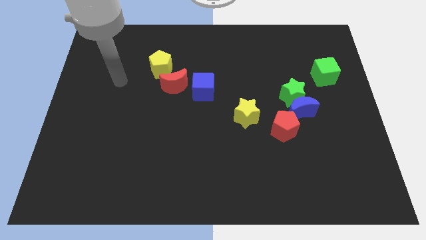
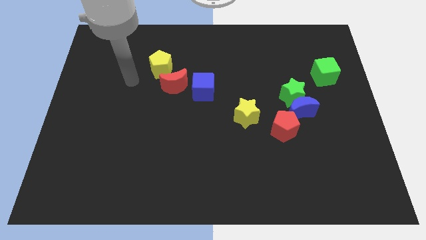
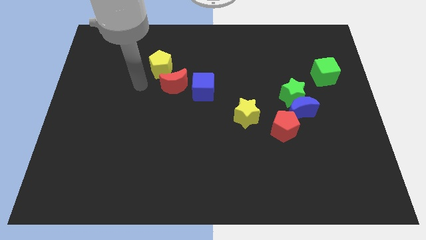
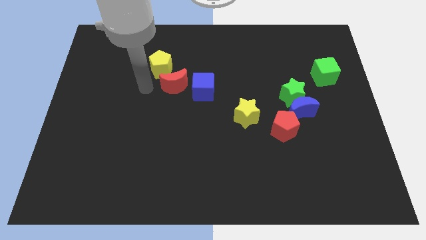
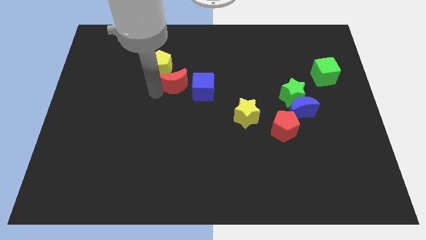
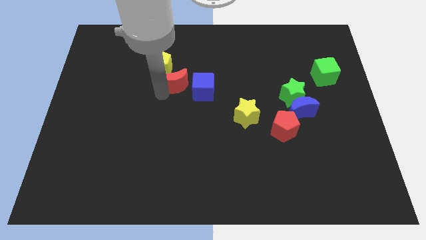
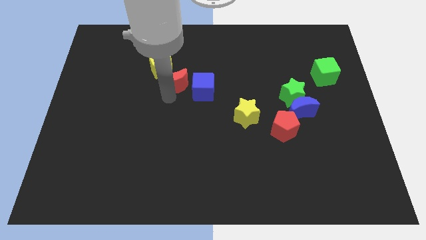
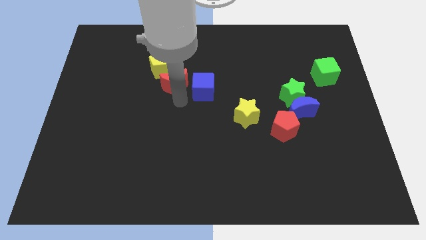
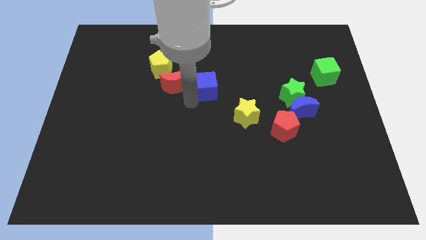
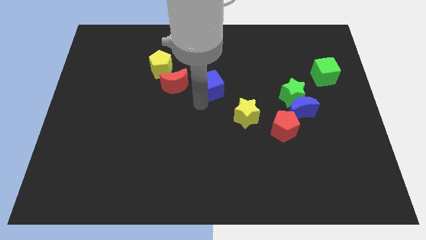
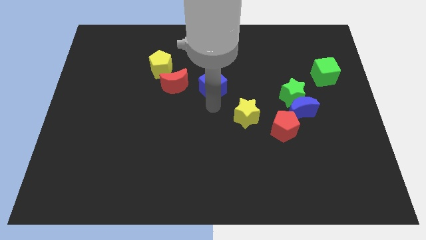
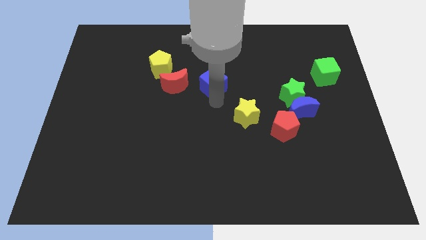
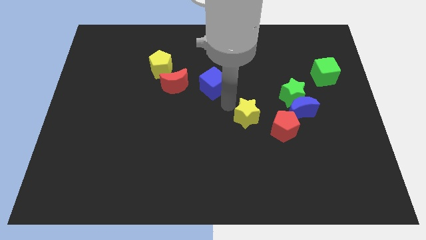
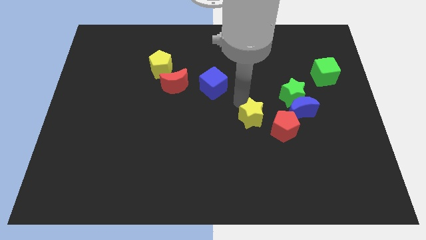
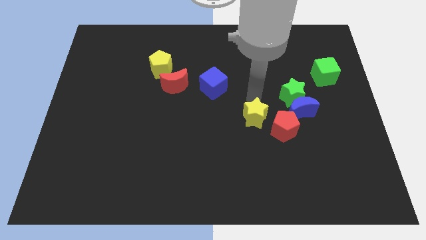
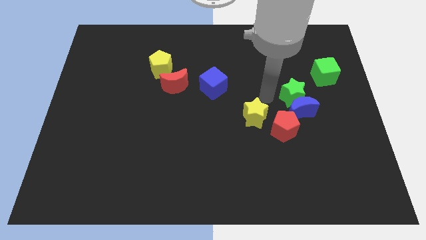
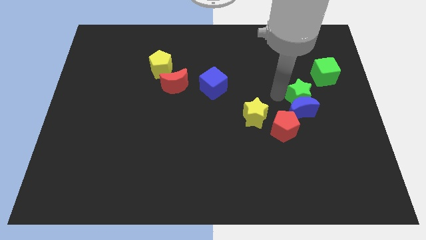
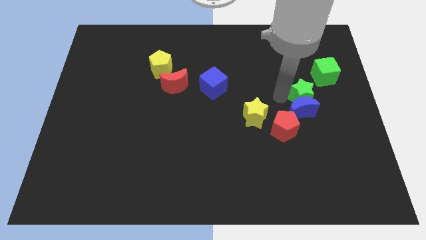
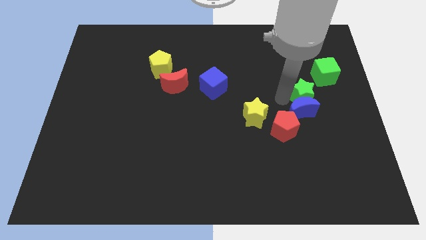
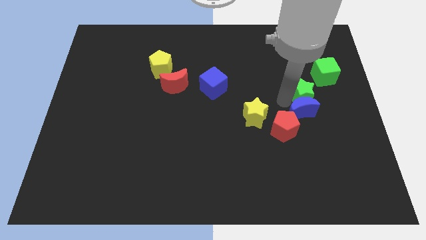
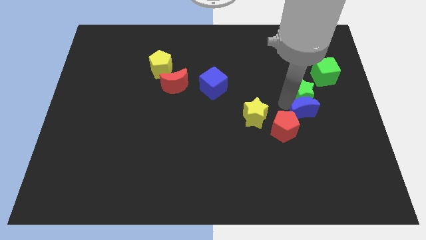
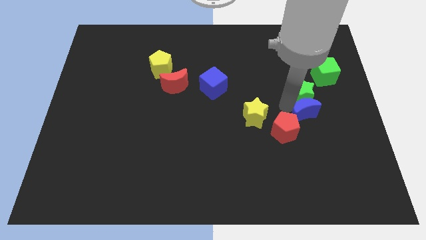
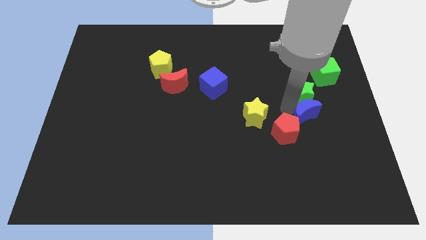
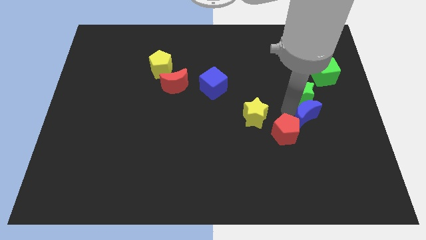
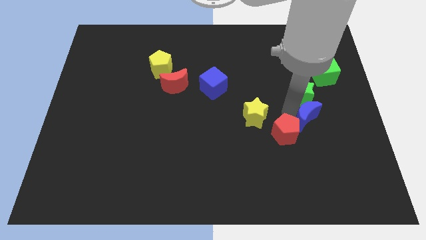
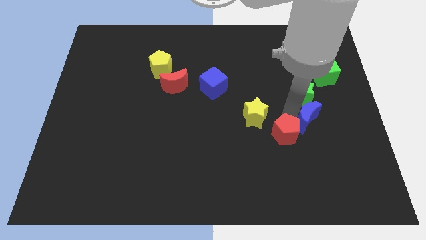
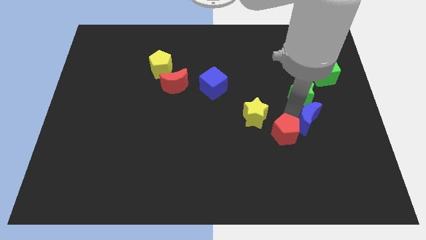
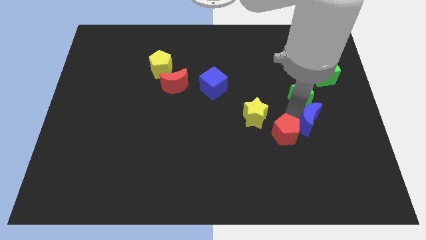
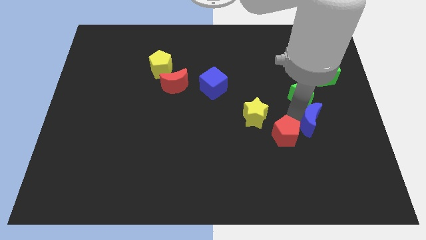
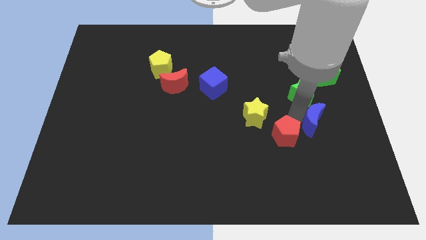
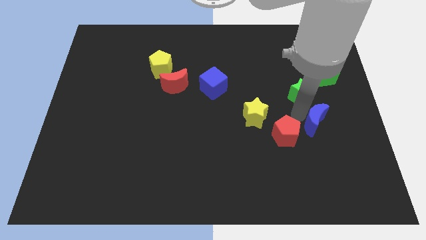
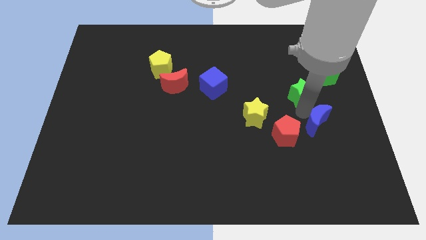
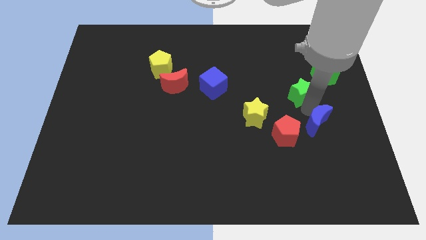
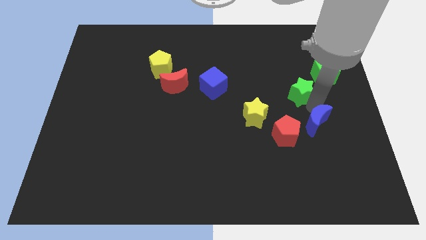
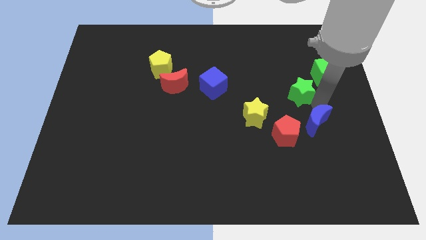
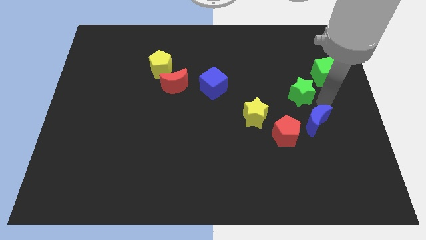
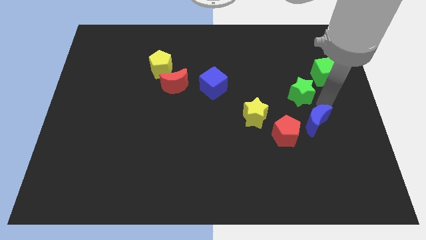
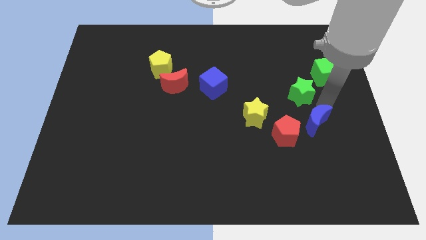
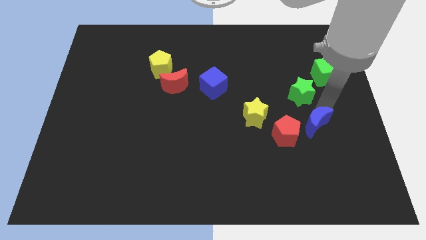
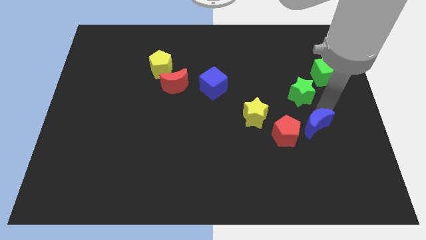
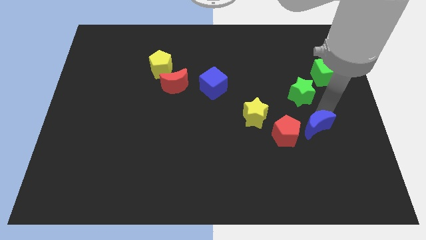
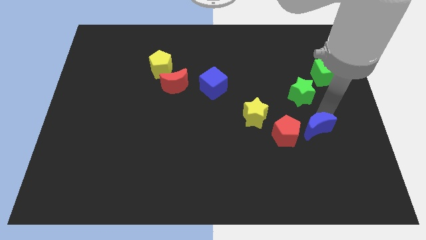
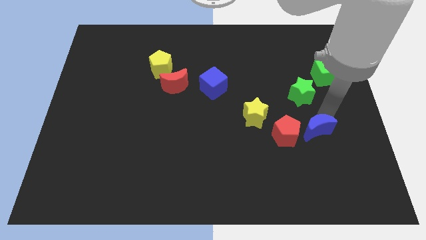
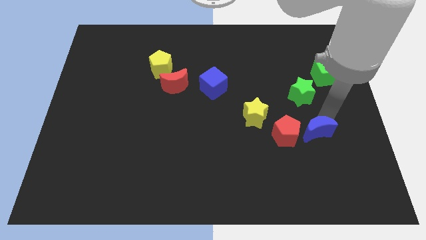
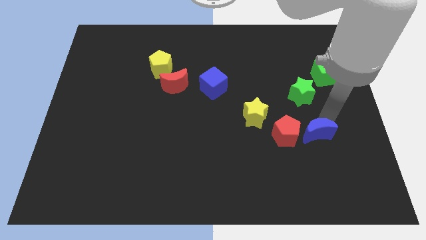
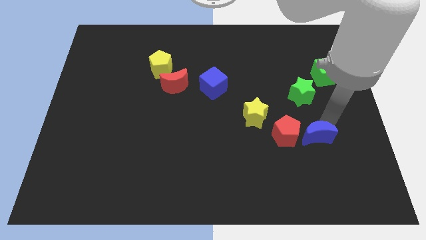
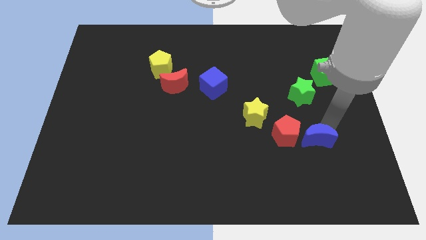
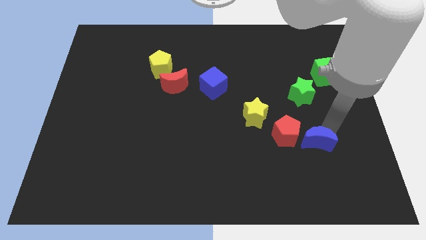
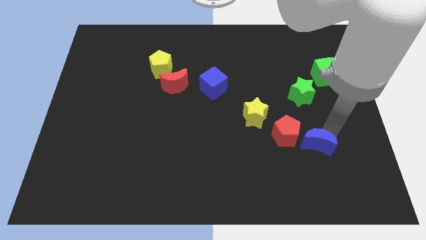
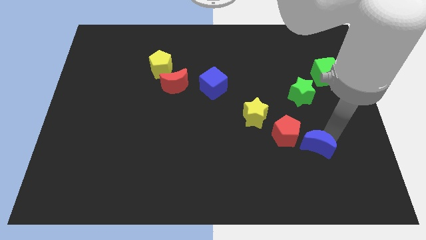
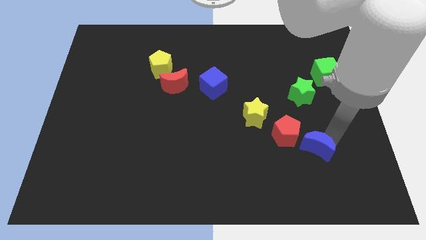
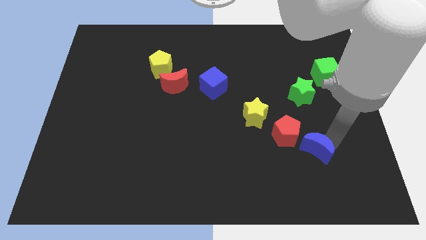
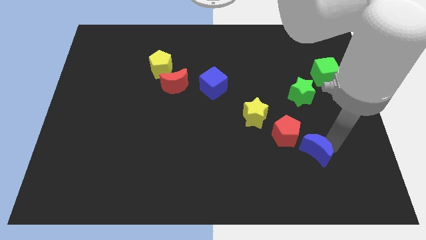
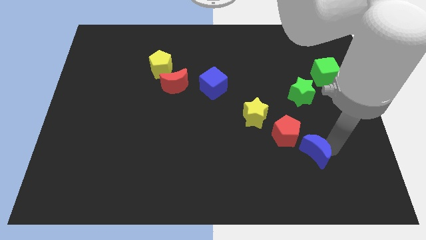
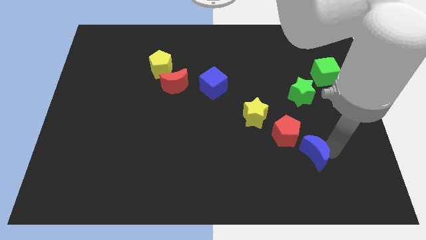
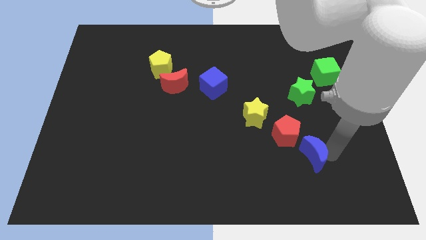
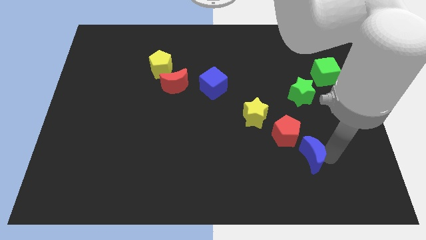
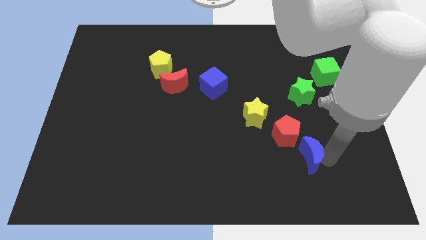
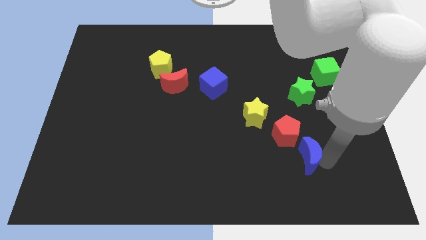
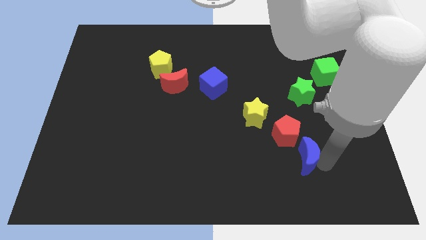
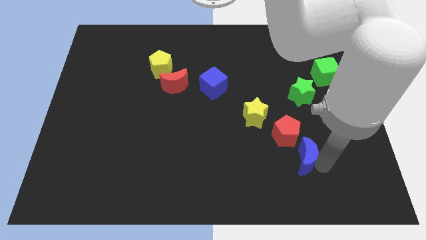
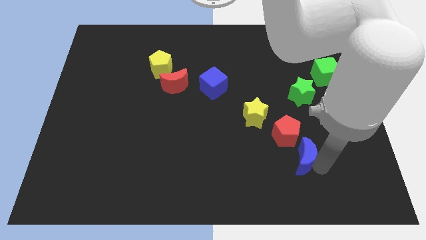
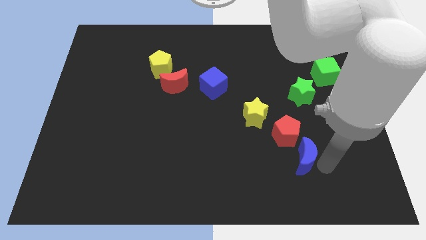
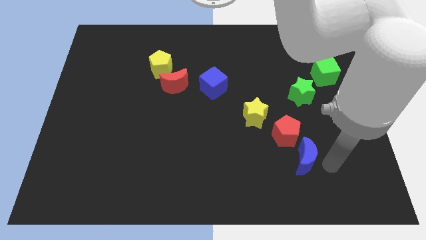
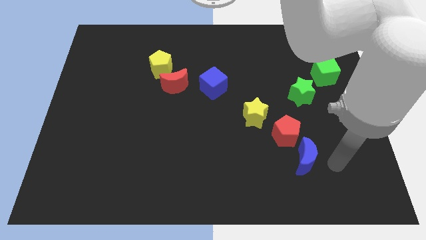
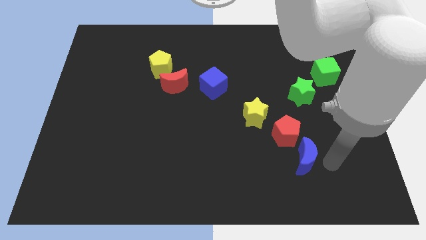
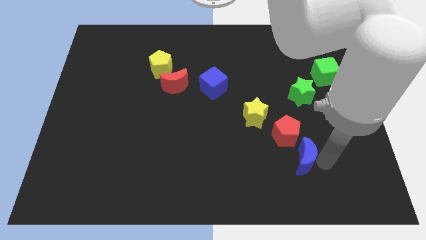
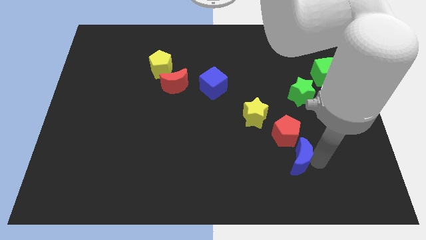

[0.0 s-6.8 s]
slightly move the blue moon down and then left

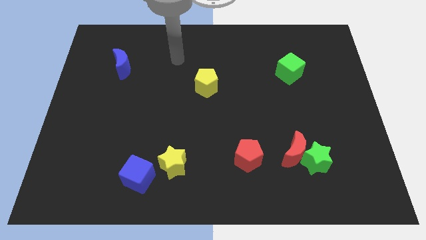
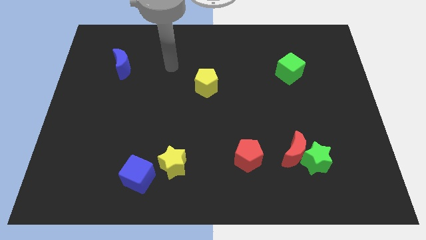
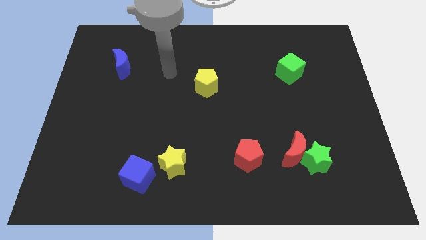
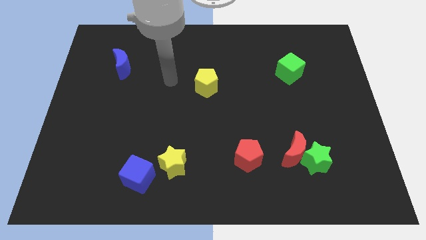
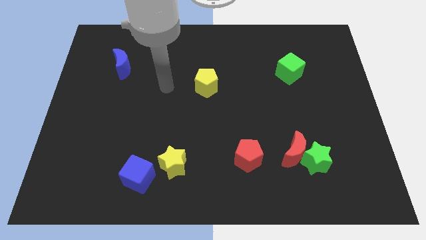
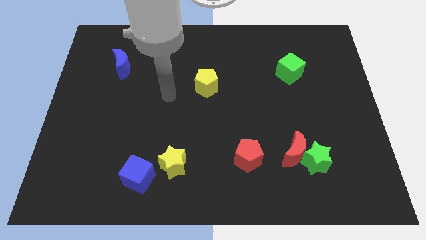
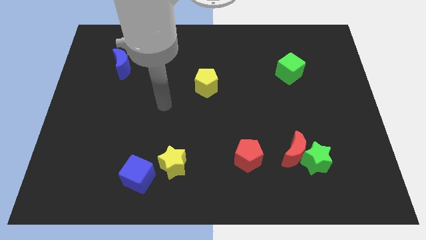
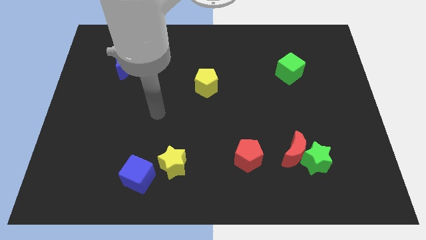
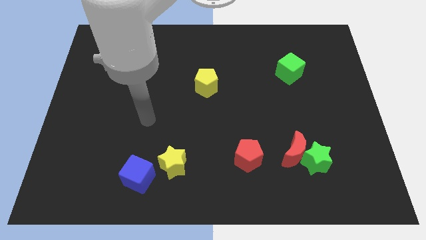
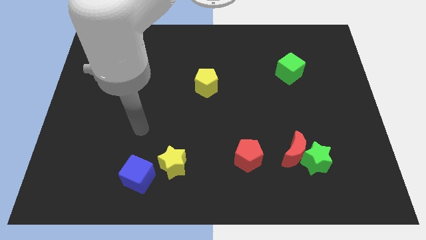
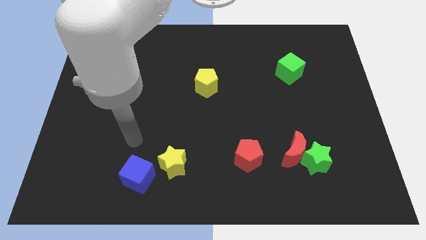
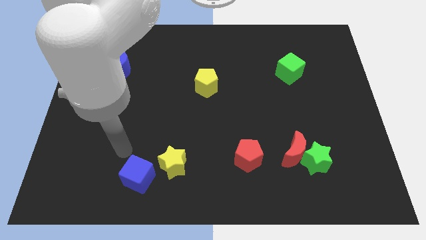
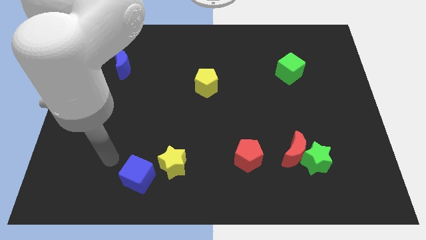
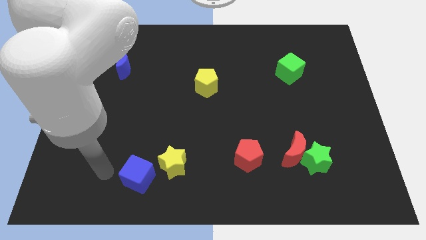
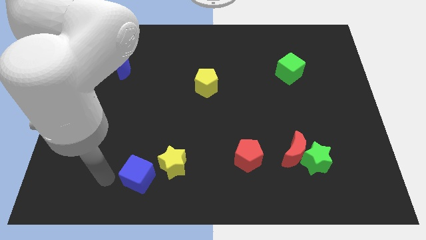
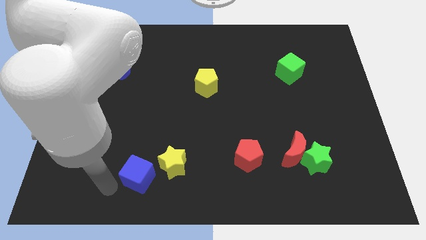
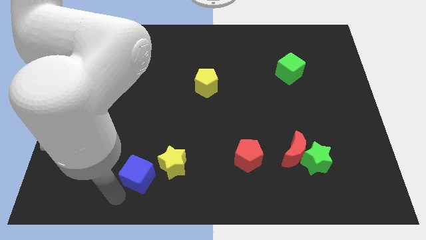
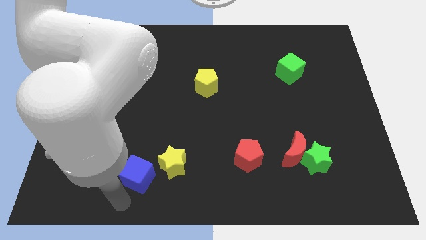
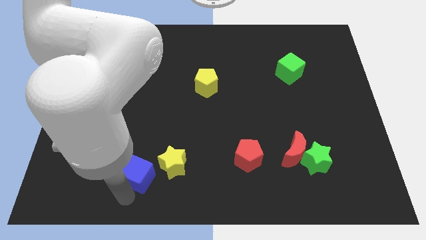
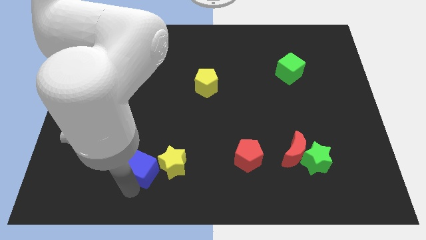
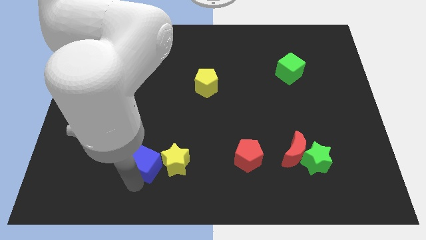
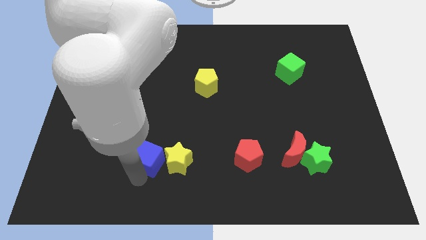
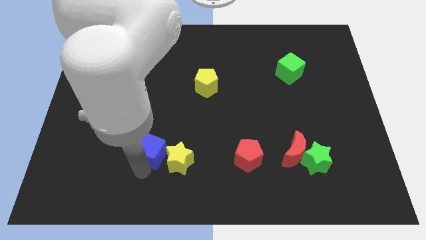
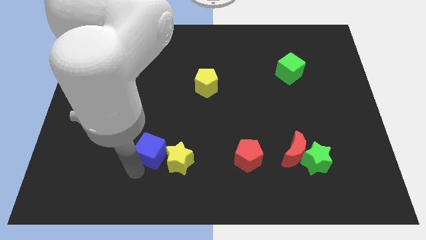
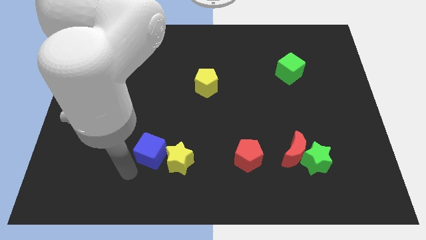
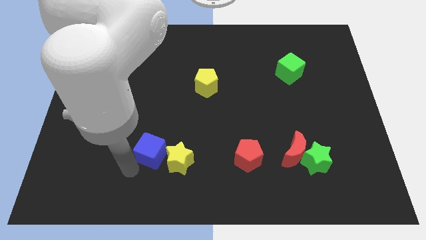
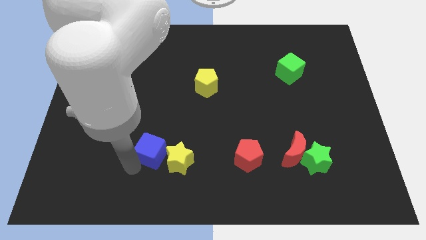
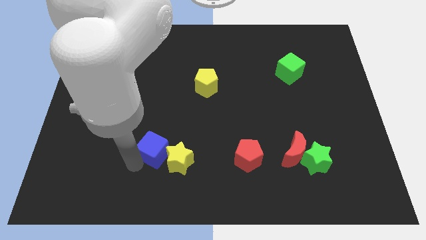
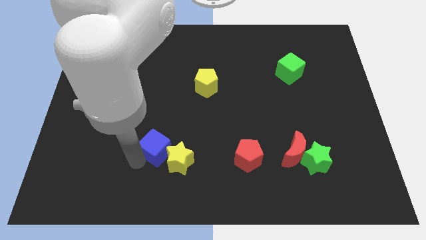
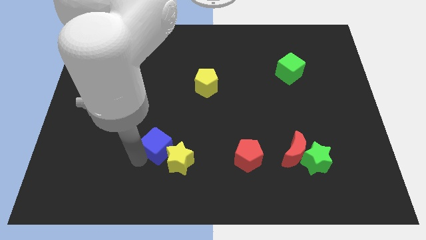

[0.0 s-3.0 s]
slightly move the blue cube upwards and right diagonally
